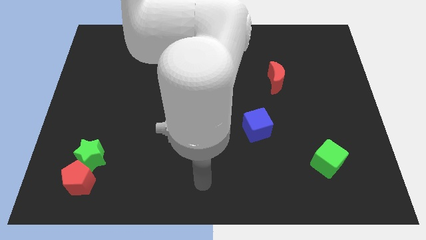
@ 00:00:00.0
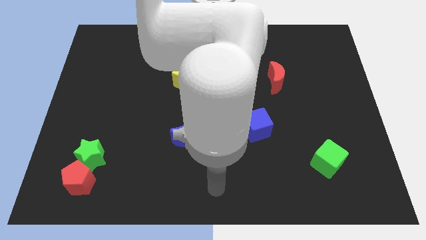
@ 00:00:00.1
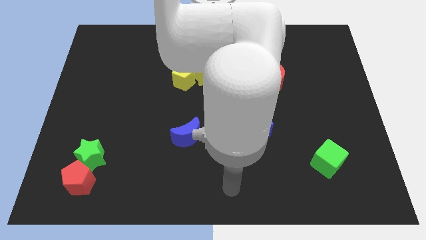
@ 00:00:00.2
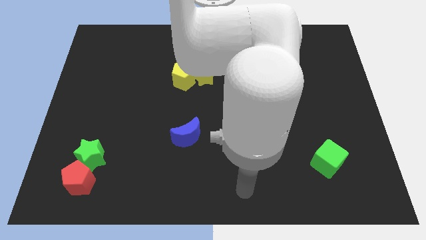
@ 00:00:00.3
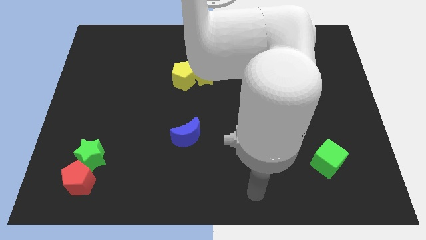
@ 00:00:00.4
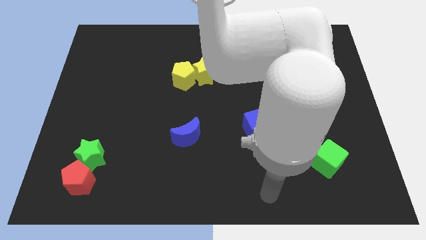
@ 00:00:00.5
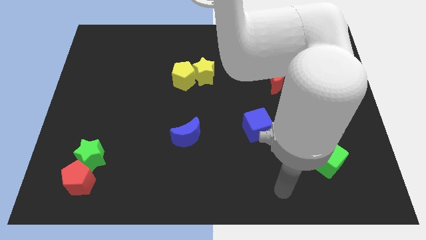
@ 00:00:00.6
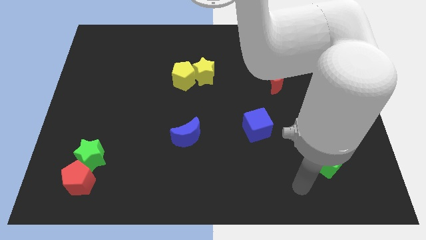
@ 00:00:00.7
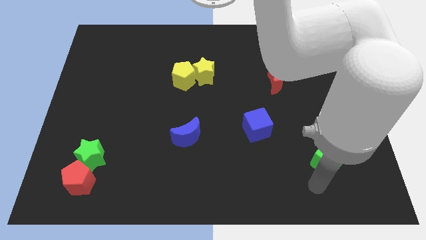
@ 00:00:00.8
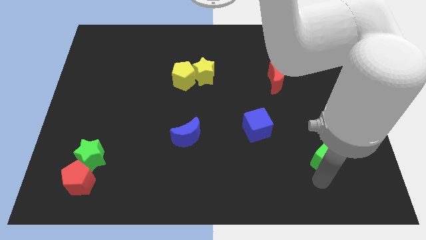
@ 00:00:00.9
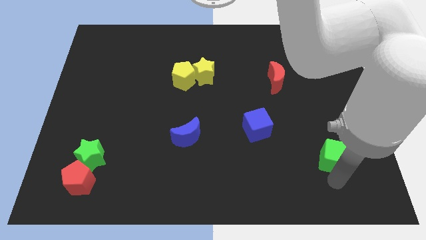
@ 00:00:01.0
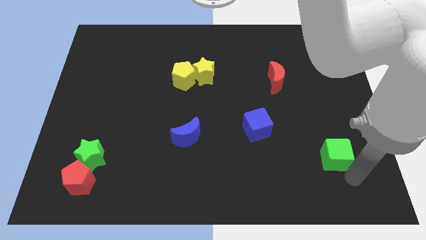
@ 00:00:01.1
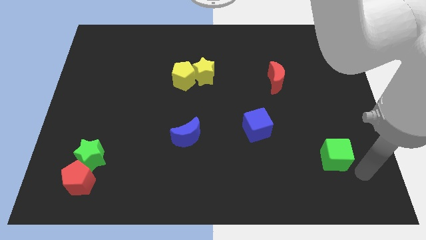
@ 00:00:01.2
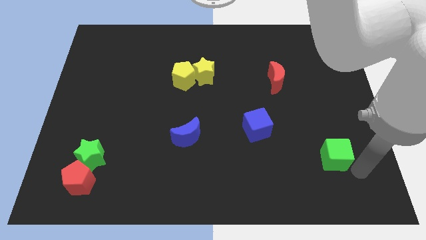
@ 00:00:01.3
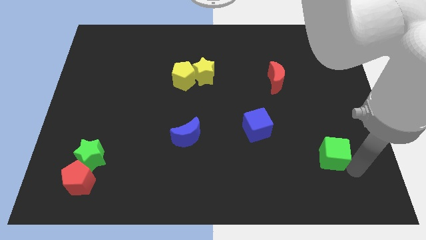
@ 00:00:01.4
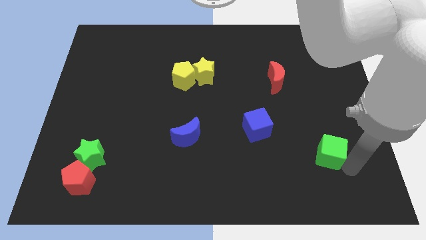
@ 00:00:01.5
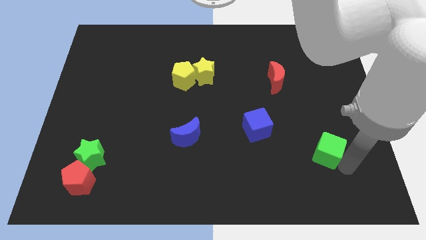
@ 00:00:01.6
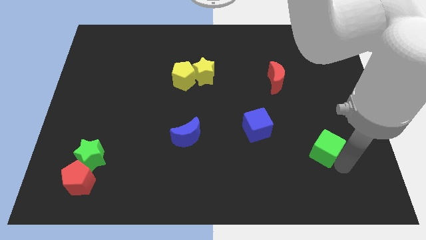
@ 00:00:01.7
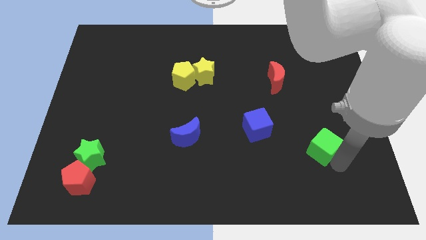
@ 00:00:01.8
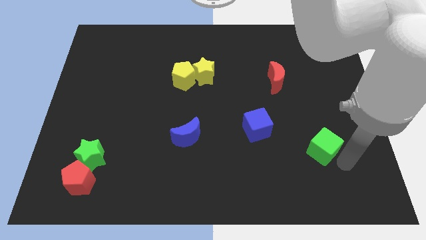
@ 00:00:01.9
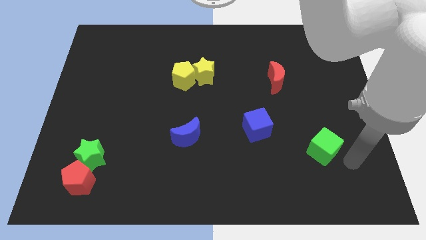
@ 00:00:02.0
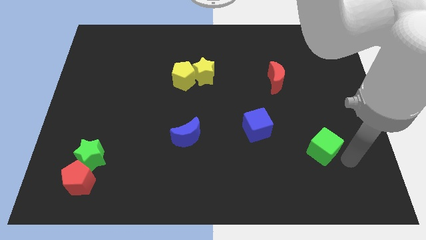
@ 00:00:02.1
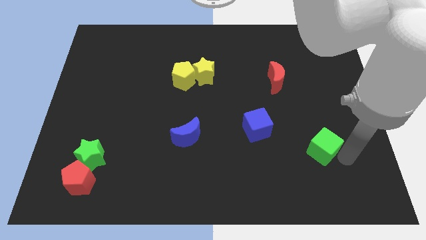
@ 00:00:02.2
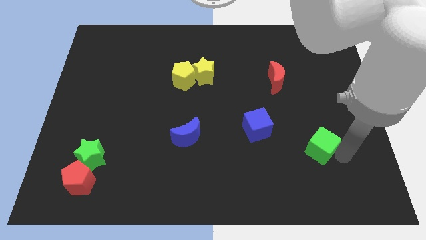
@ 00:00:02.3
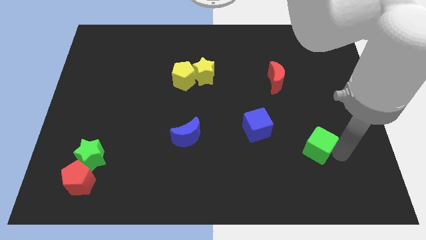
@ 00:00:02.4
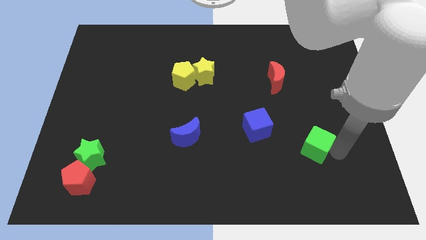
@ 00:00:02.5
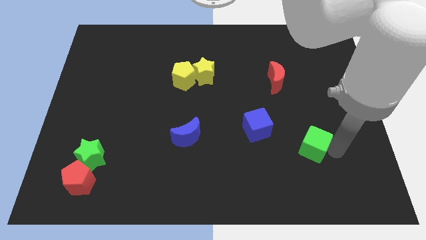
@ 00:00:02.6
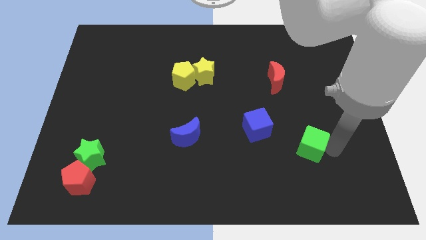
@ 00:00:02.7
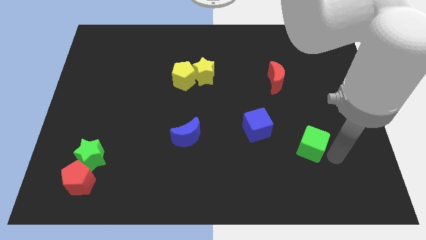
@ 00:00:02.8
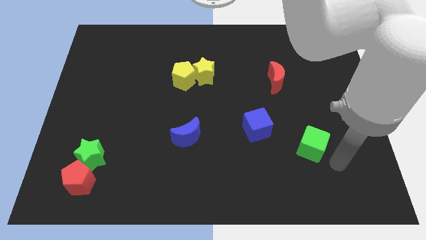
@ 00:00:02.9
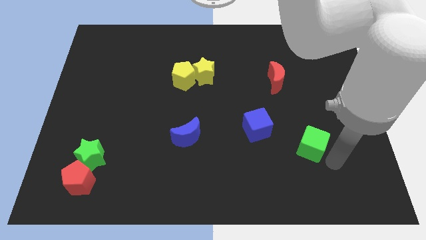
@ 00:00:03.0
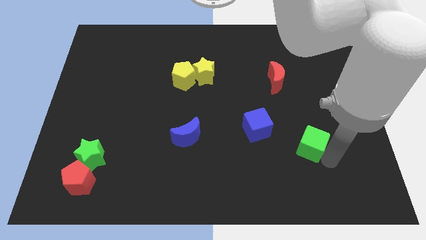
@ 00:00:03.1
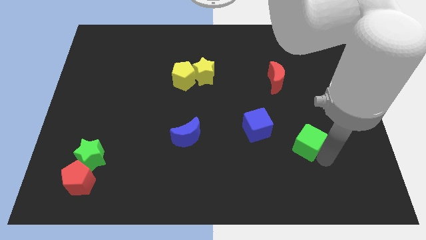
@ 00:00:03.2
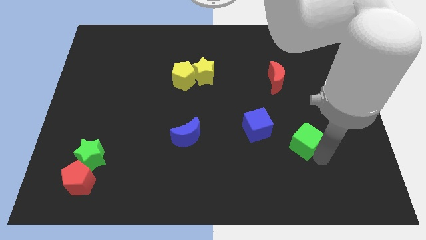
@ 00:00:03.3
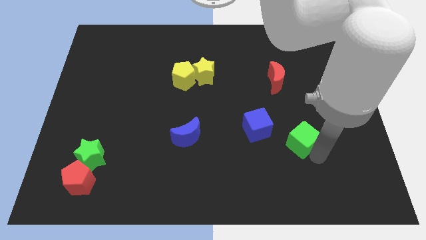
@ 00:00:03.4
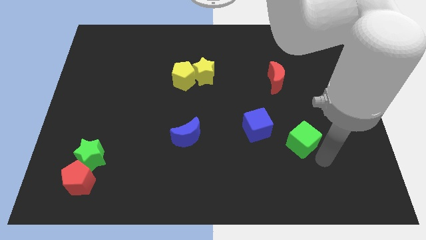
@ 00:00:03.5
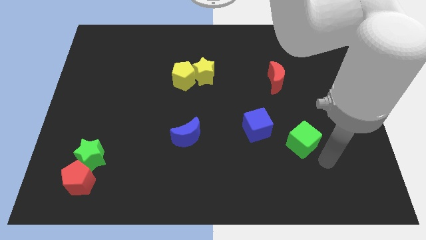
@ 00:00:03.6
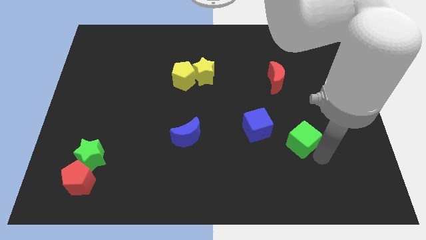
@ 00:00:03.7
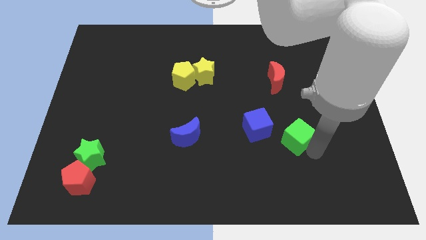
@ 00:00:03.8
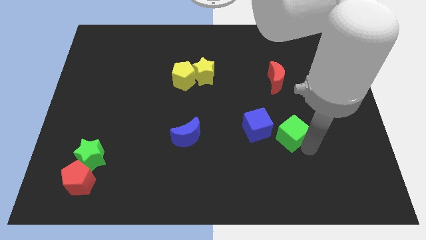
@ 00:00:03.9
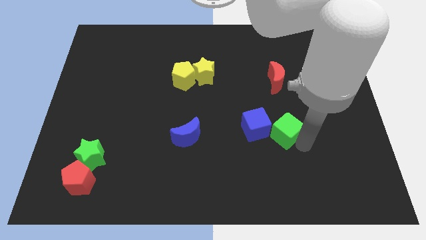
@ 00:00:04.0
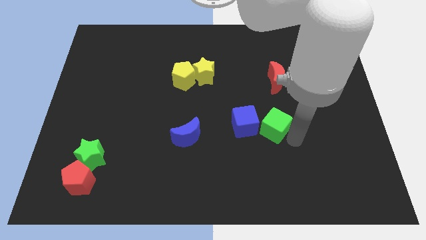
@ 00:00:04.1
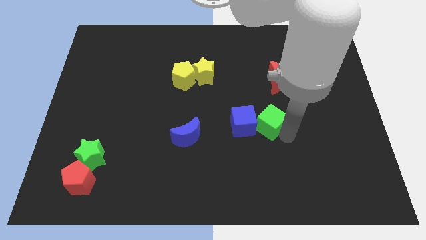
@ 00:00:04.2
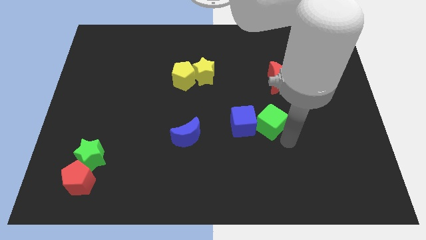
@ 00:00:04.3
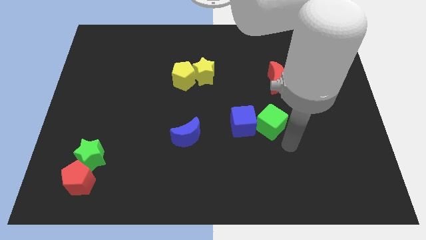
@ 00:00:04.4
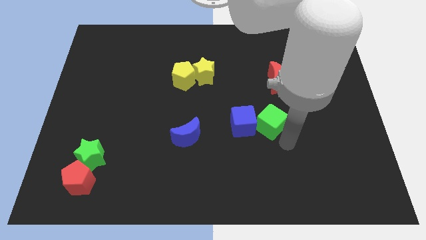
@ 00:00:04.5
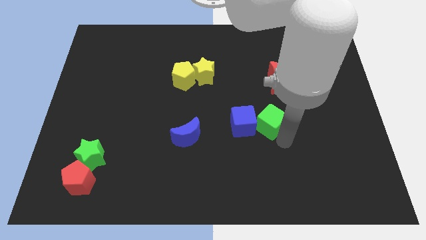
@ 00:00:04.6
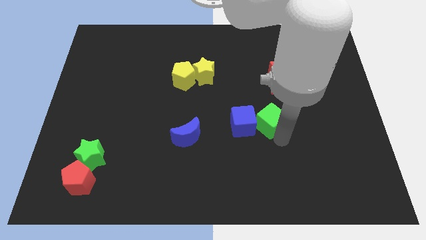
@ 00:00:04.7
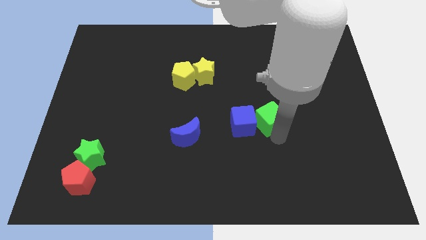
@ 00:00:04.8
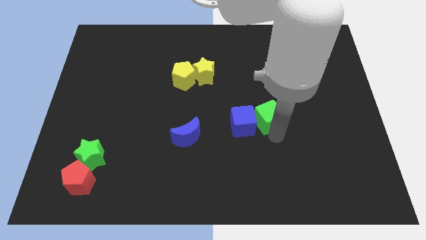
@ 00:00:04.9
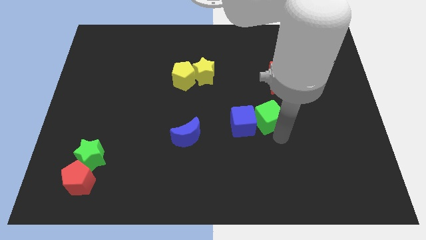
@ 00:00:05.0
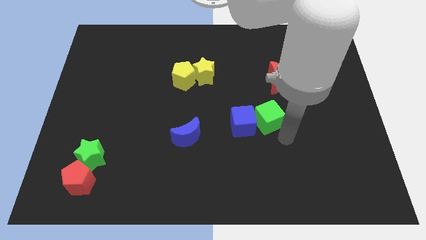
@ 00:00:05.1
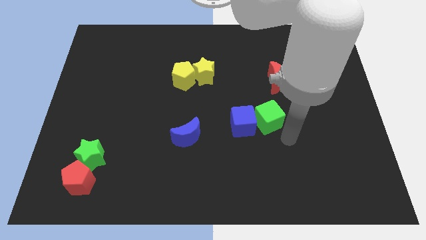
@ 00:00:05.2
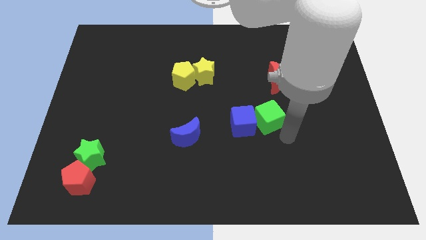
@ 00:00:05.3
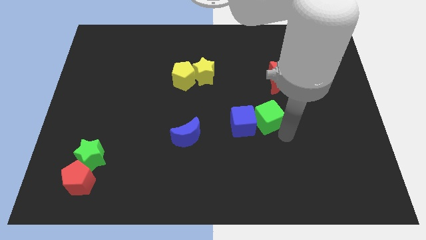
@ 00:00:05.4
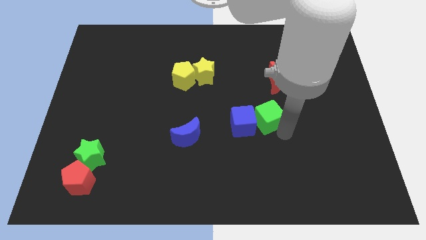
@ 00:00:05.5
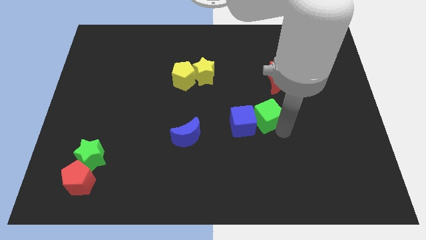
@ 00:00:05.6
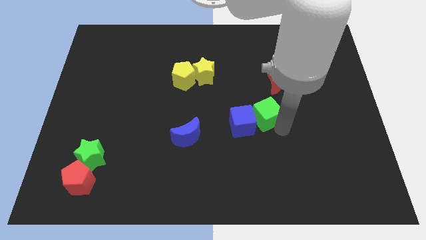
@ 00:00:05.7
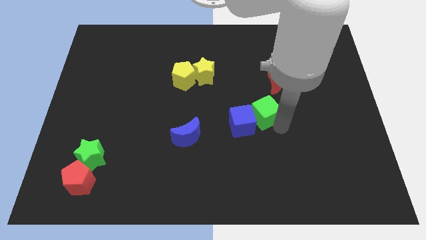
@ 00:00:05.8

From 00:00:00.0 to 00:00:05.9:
slide the green cube to the middle of the board
